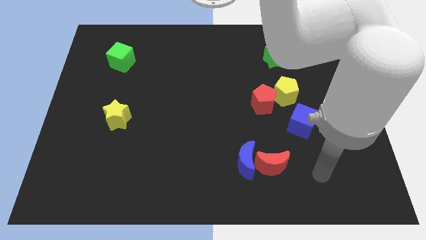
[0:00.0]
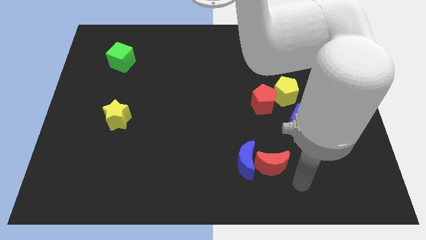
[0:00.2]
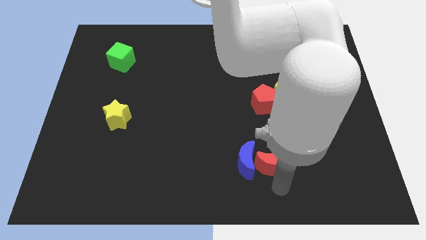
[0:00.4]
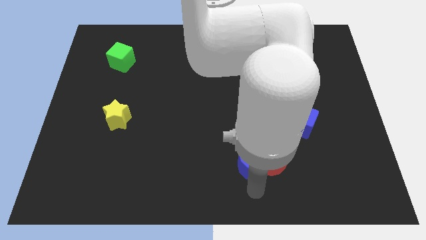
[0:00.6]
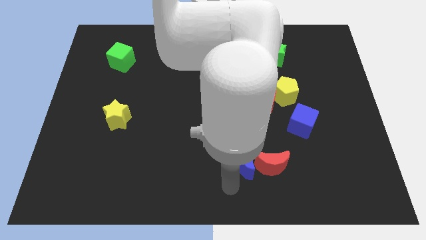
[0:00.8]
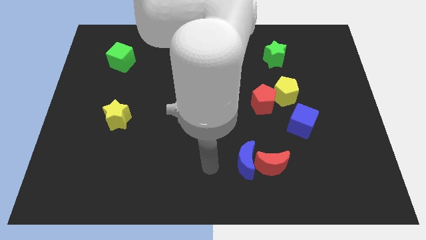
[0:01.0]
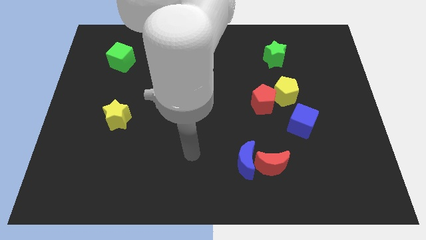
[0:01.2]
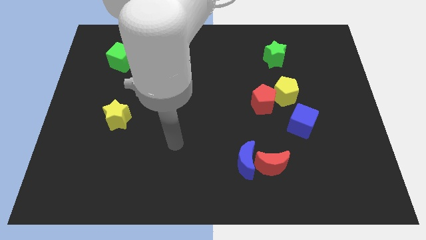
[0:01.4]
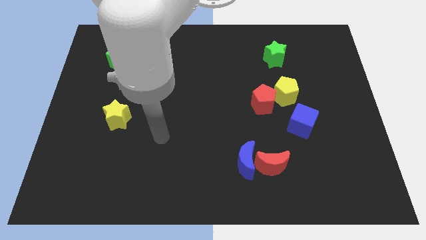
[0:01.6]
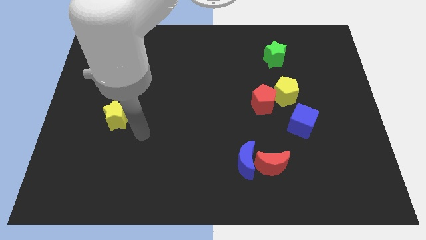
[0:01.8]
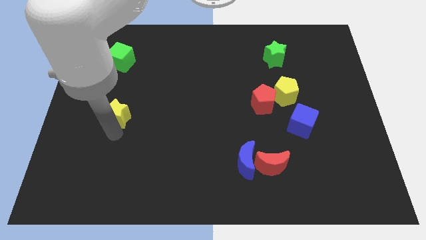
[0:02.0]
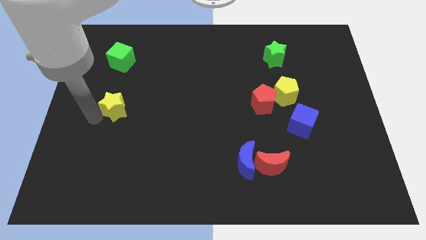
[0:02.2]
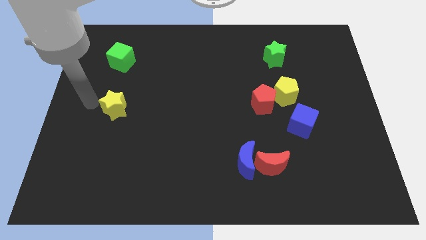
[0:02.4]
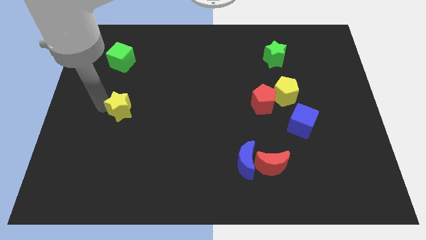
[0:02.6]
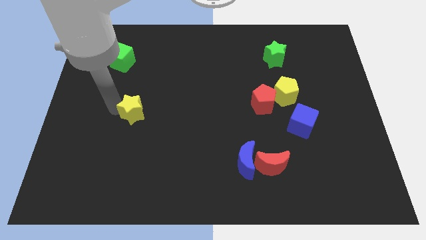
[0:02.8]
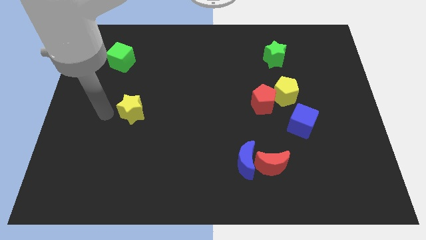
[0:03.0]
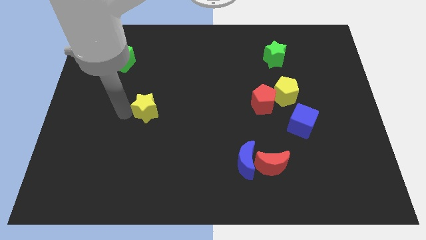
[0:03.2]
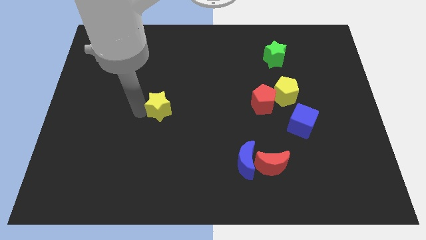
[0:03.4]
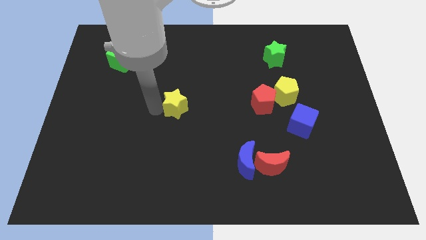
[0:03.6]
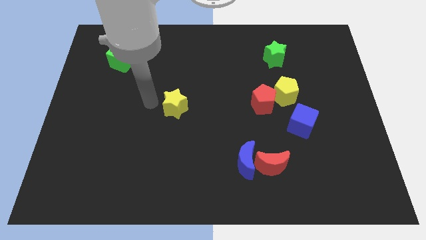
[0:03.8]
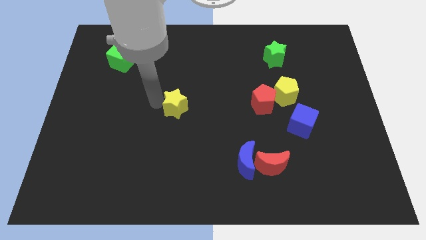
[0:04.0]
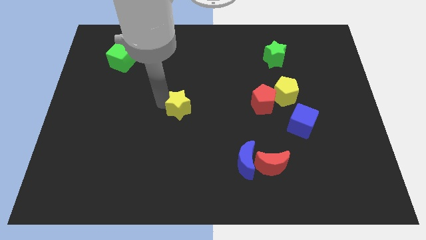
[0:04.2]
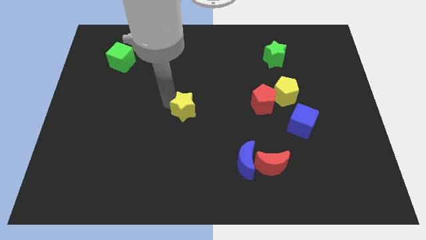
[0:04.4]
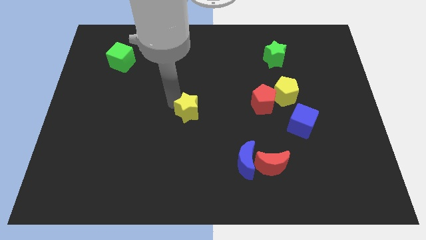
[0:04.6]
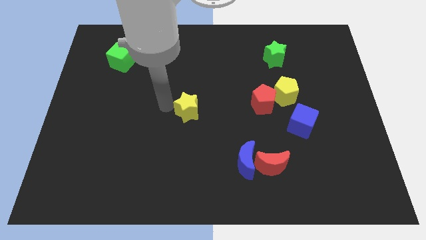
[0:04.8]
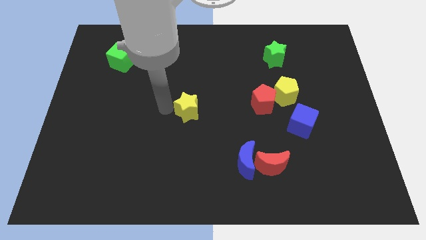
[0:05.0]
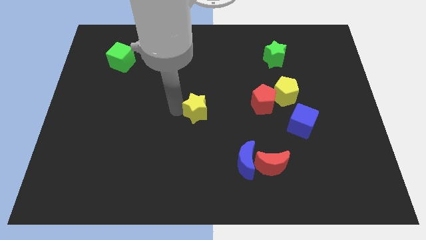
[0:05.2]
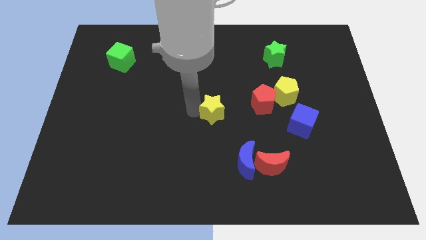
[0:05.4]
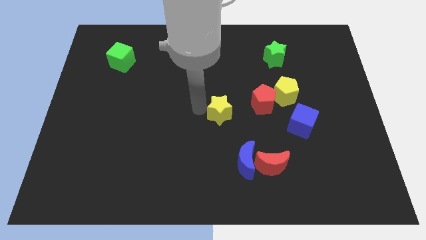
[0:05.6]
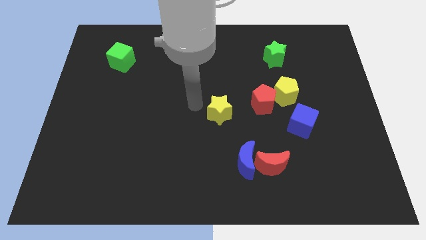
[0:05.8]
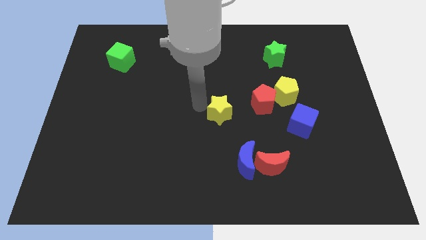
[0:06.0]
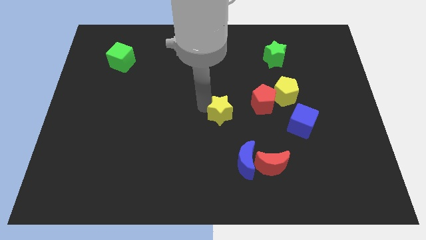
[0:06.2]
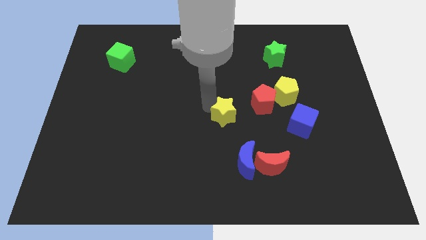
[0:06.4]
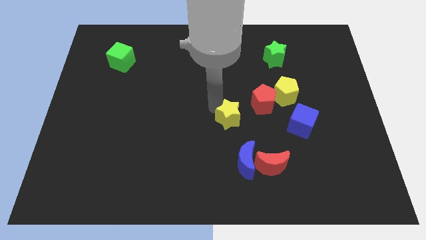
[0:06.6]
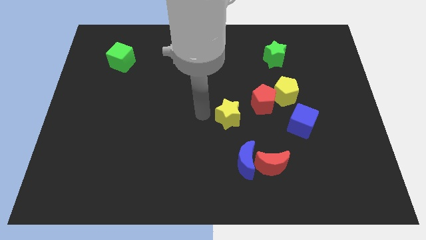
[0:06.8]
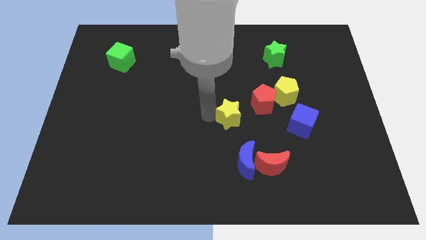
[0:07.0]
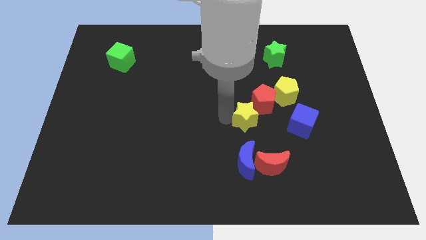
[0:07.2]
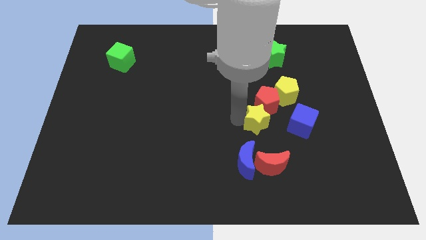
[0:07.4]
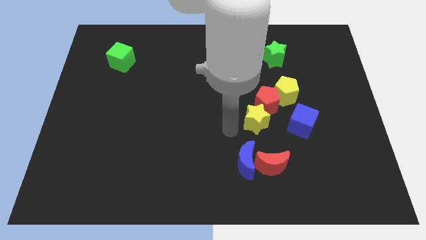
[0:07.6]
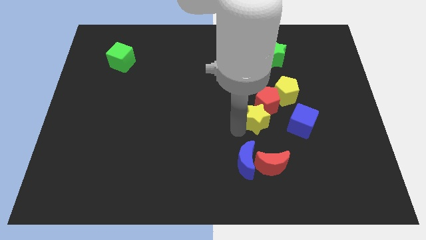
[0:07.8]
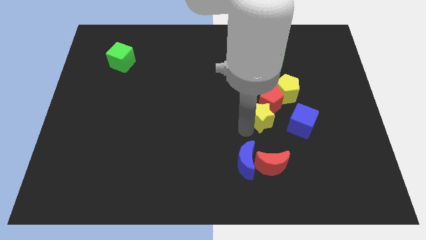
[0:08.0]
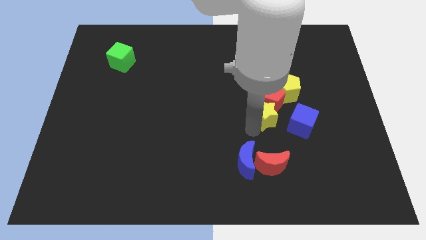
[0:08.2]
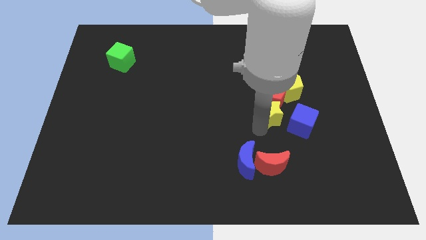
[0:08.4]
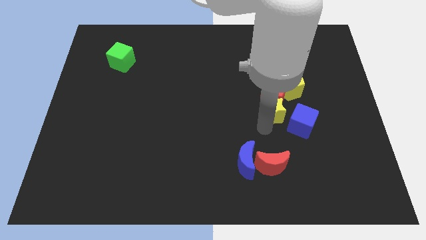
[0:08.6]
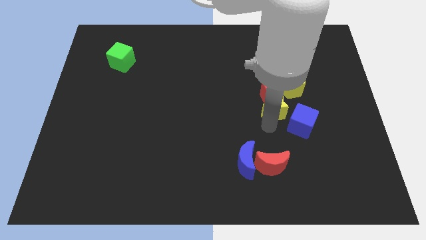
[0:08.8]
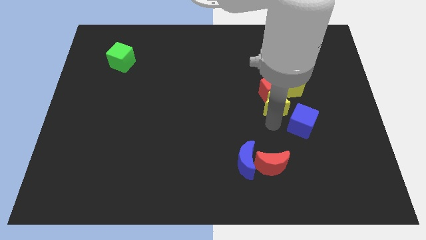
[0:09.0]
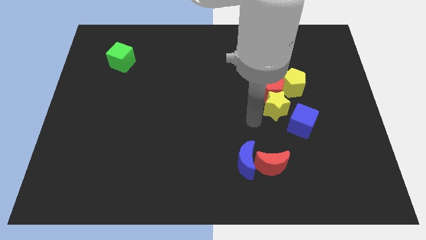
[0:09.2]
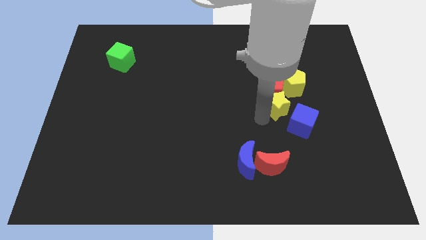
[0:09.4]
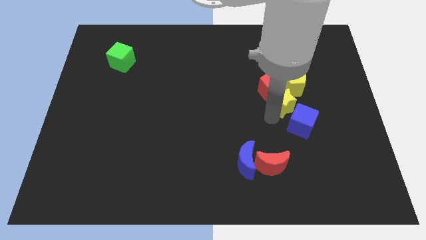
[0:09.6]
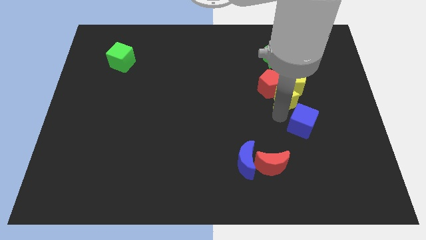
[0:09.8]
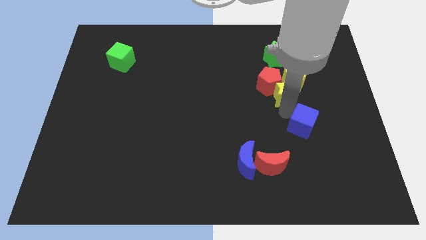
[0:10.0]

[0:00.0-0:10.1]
move the yellow star right of the red pentagon

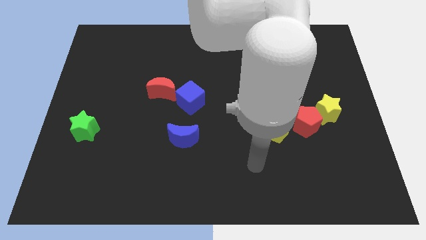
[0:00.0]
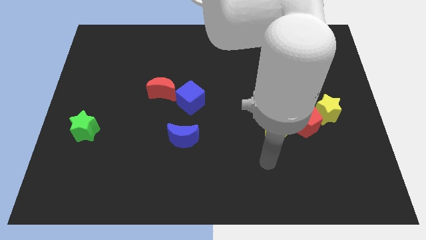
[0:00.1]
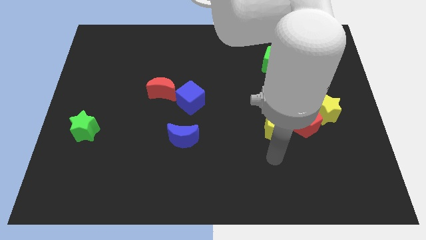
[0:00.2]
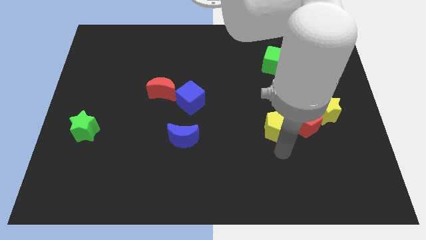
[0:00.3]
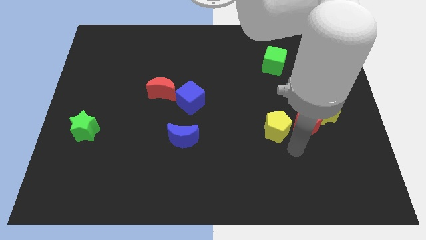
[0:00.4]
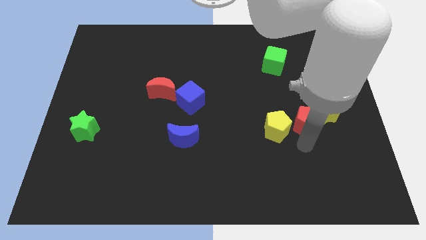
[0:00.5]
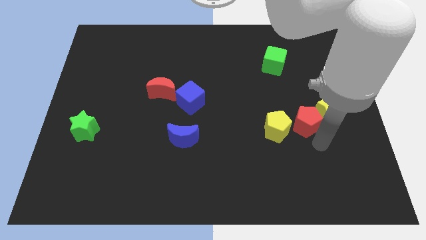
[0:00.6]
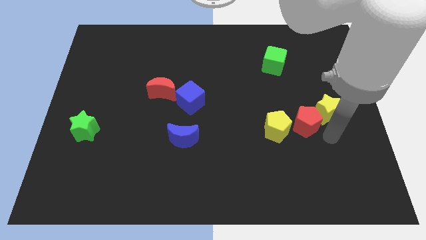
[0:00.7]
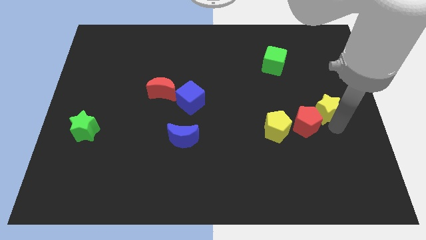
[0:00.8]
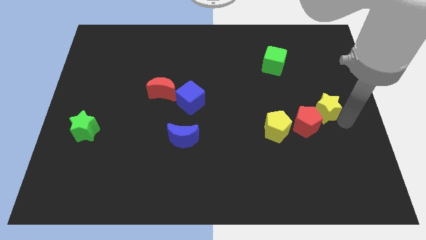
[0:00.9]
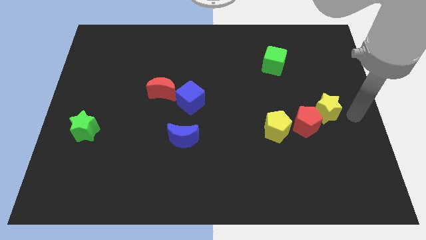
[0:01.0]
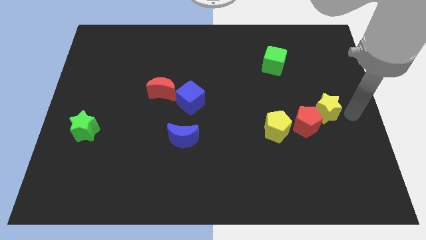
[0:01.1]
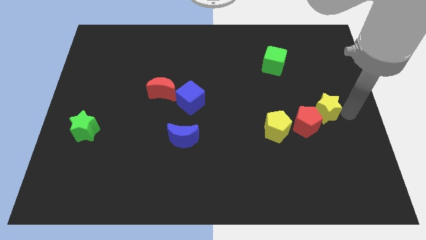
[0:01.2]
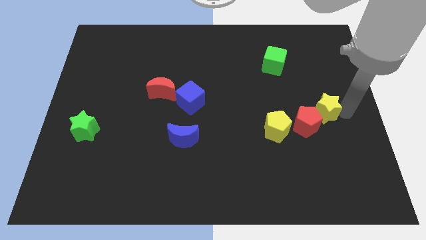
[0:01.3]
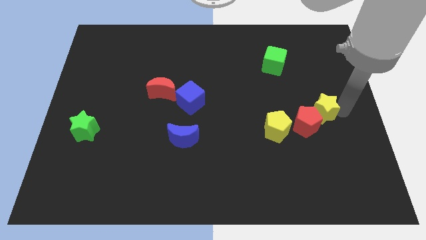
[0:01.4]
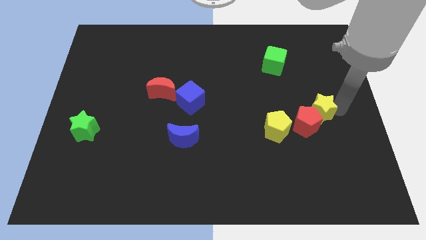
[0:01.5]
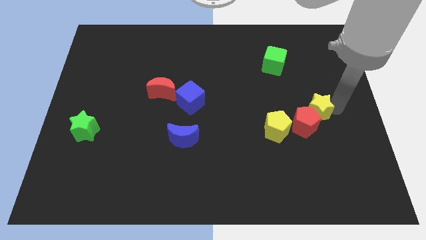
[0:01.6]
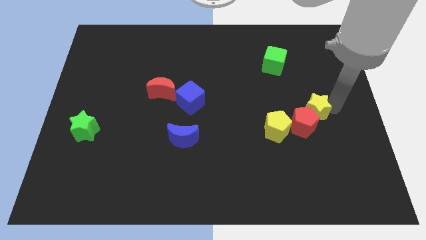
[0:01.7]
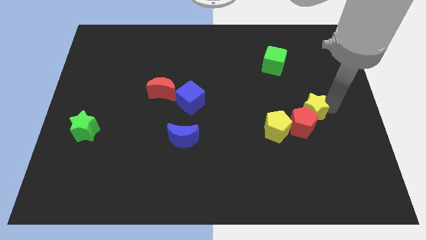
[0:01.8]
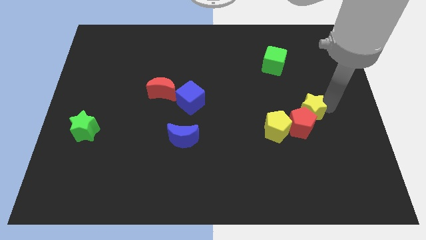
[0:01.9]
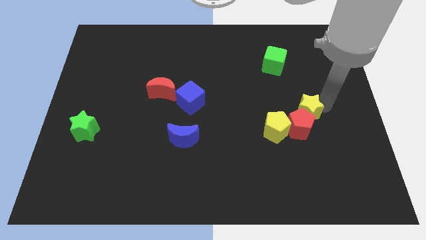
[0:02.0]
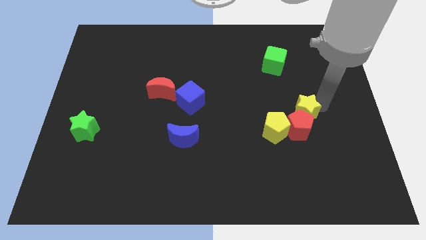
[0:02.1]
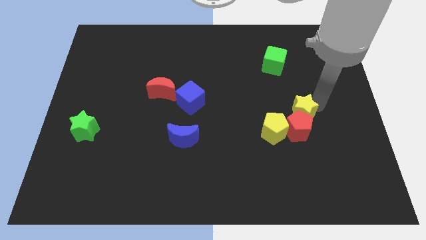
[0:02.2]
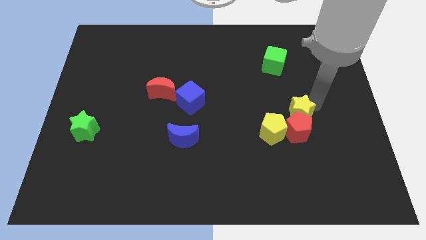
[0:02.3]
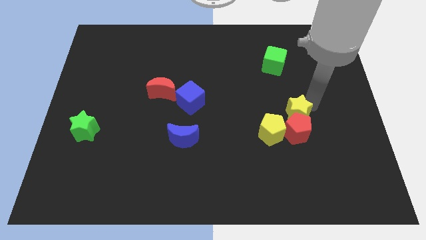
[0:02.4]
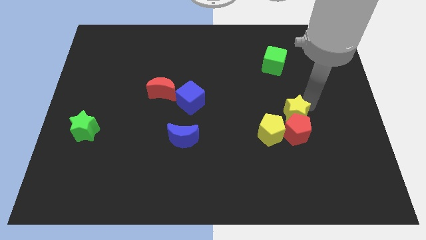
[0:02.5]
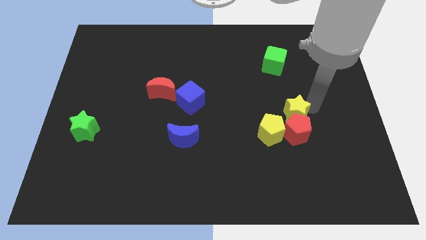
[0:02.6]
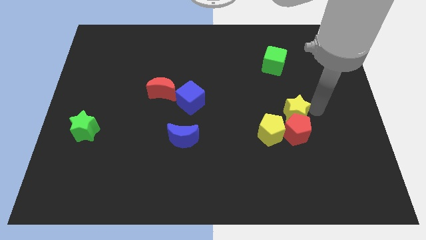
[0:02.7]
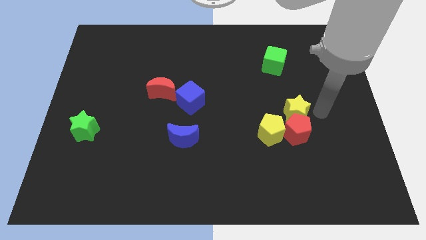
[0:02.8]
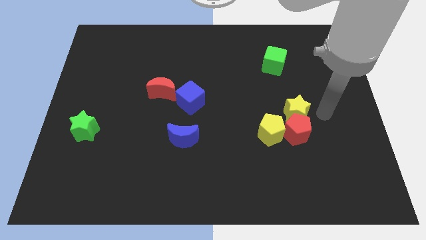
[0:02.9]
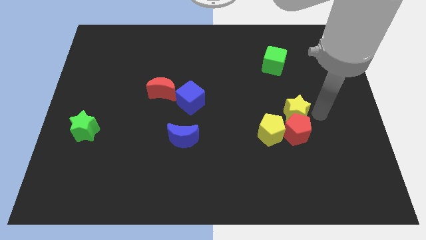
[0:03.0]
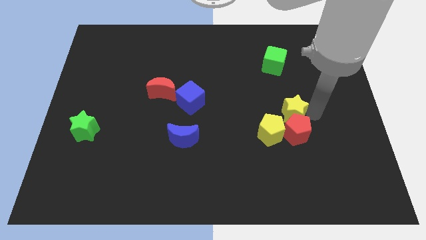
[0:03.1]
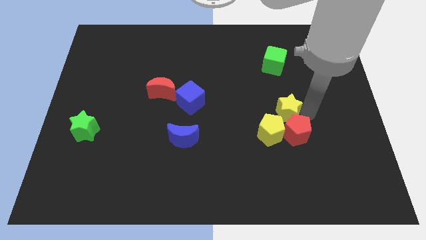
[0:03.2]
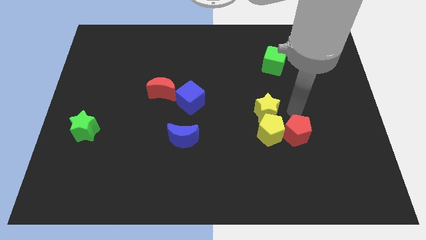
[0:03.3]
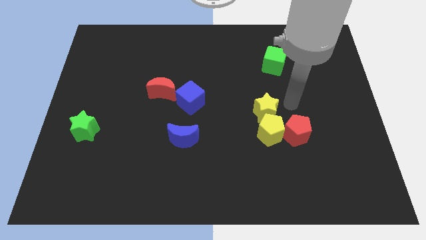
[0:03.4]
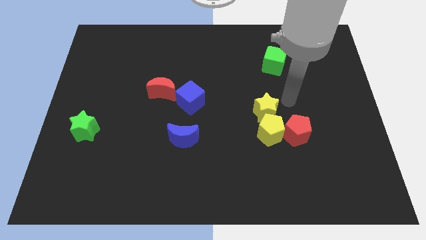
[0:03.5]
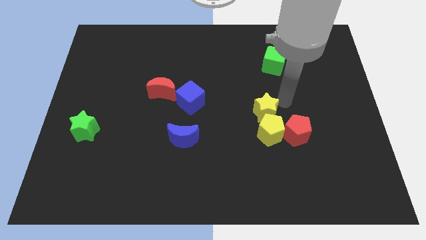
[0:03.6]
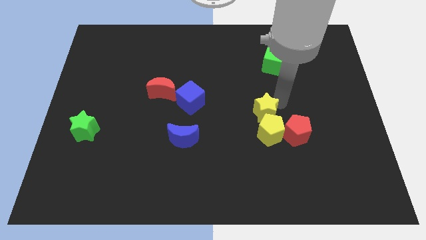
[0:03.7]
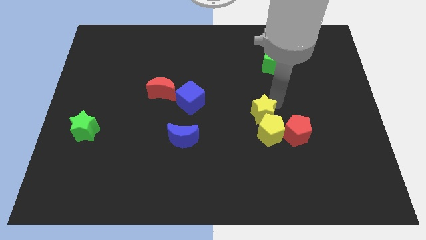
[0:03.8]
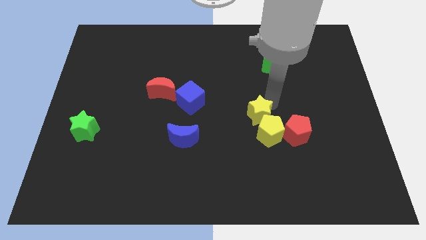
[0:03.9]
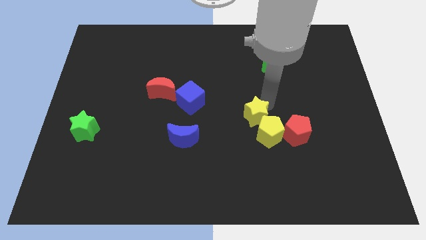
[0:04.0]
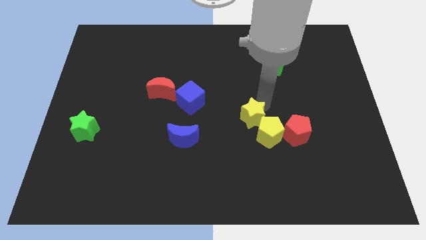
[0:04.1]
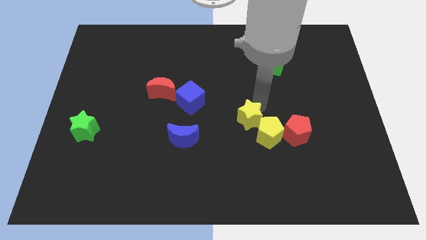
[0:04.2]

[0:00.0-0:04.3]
move the yellow star to the left side of the yellow pentagon
